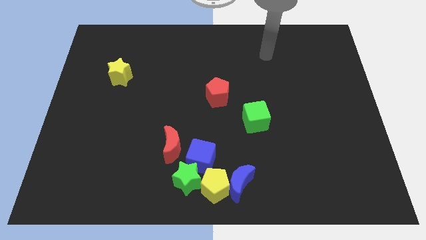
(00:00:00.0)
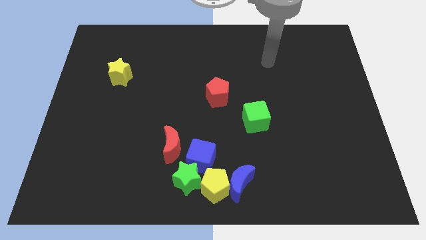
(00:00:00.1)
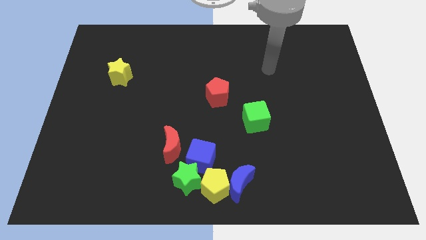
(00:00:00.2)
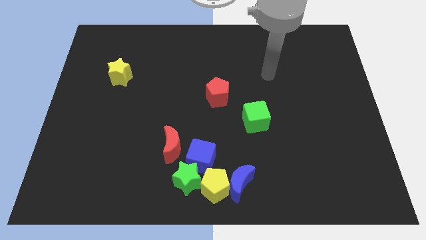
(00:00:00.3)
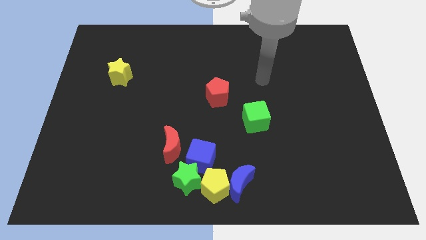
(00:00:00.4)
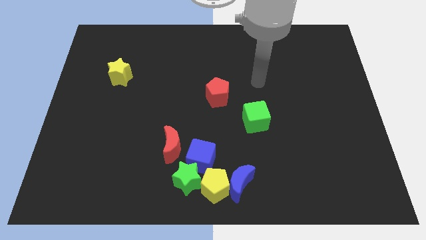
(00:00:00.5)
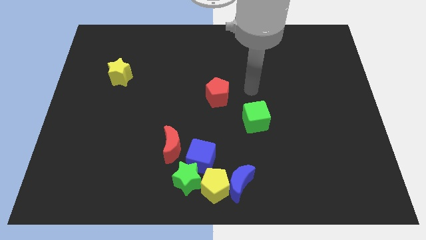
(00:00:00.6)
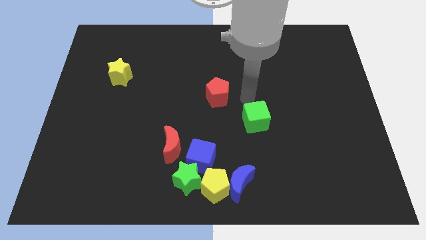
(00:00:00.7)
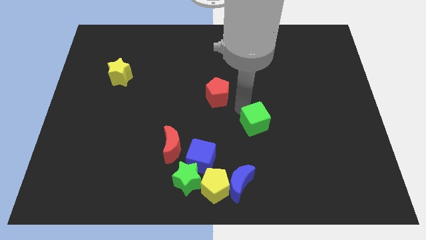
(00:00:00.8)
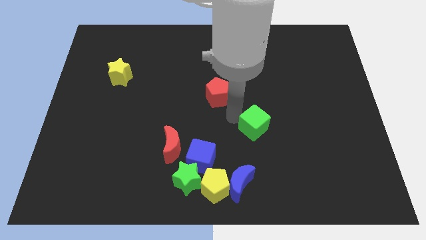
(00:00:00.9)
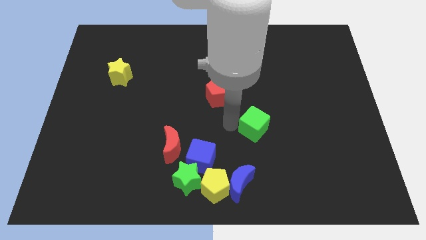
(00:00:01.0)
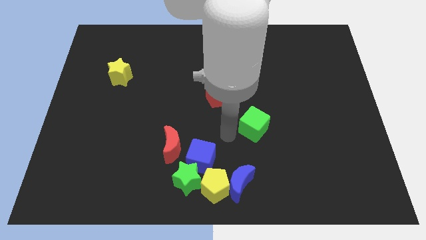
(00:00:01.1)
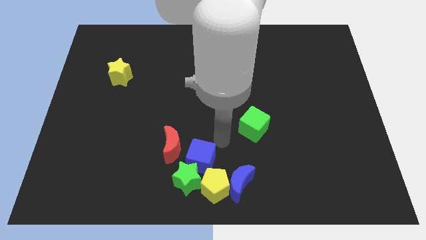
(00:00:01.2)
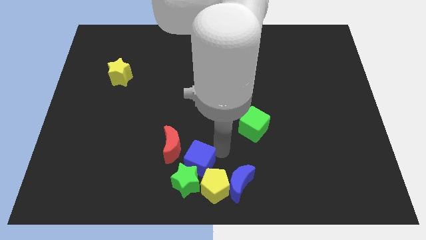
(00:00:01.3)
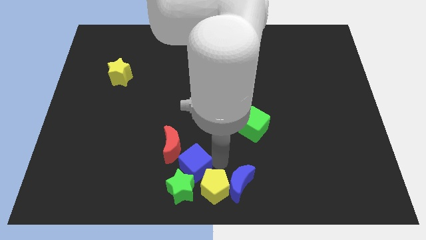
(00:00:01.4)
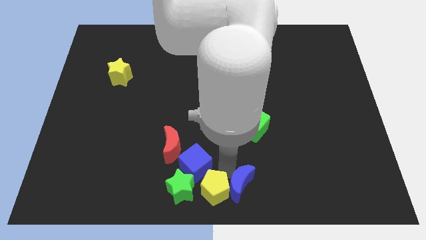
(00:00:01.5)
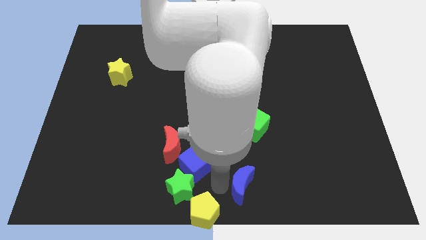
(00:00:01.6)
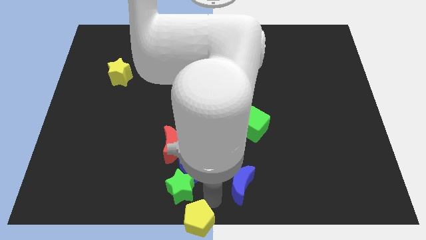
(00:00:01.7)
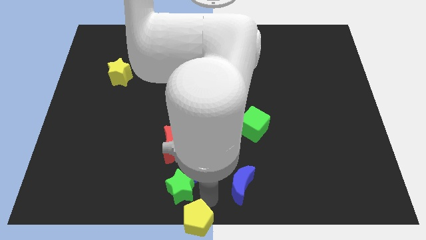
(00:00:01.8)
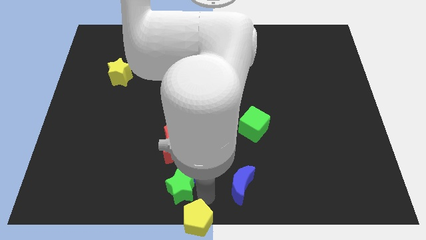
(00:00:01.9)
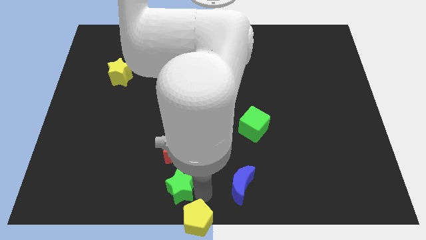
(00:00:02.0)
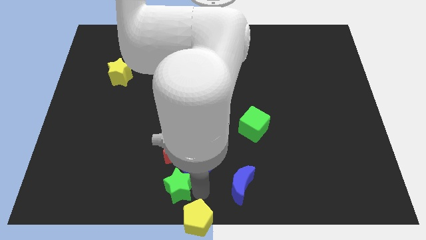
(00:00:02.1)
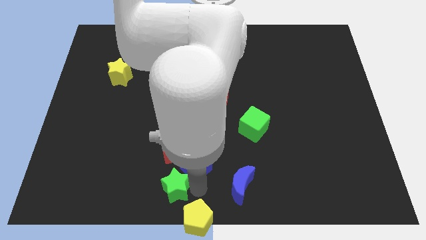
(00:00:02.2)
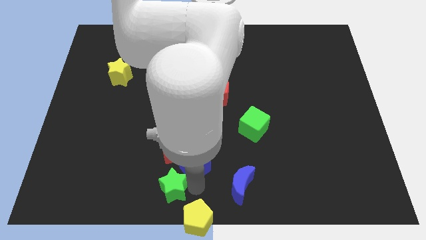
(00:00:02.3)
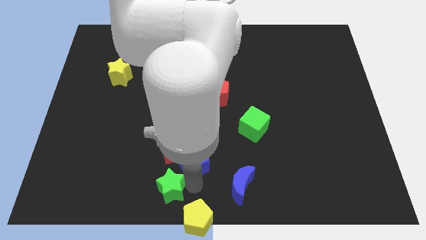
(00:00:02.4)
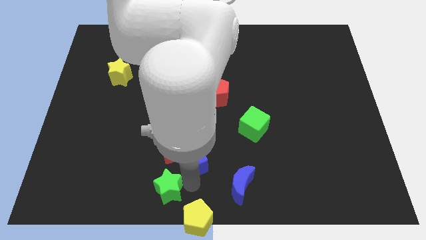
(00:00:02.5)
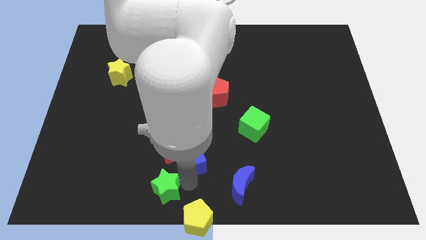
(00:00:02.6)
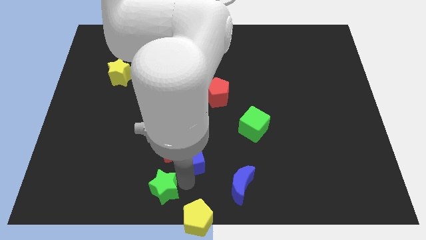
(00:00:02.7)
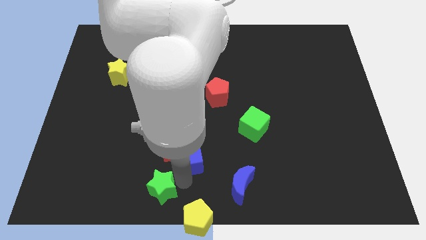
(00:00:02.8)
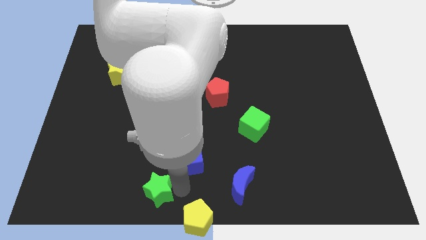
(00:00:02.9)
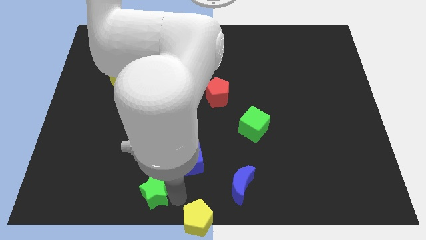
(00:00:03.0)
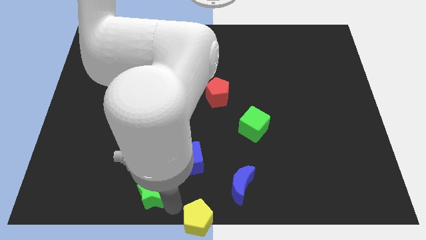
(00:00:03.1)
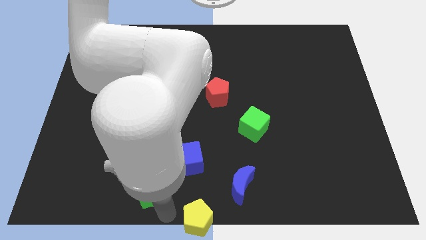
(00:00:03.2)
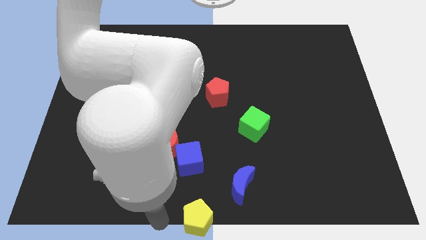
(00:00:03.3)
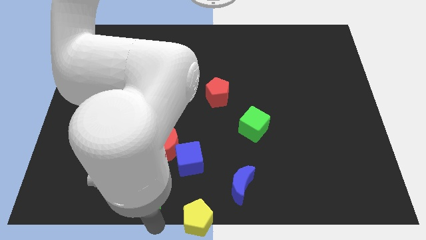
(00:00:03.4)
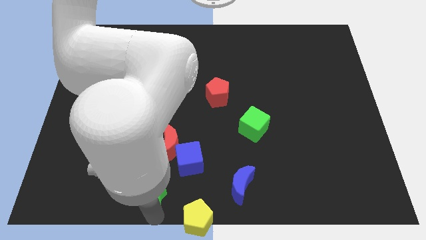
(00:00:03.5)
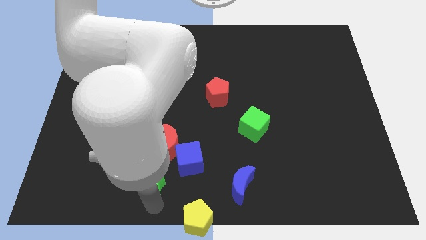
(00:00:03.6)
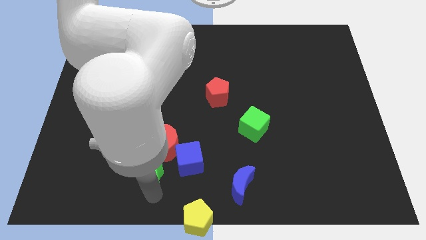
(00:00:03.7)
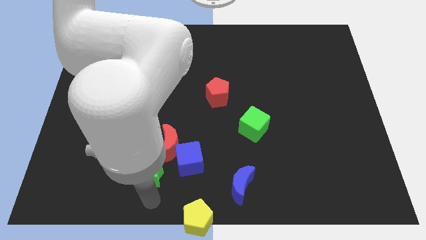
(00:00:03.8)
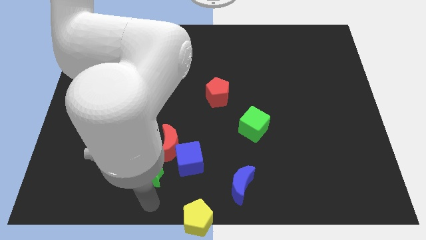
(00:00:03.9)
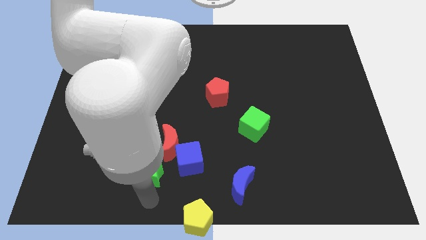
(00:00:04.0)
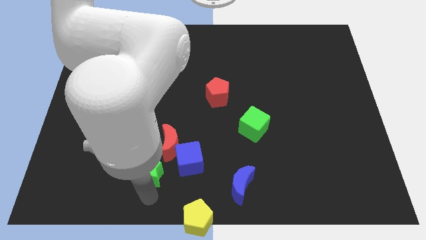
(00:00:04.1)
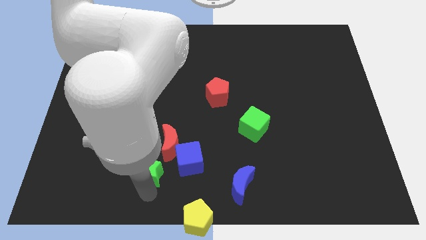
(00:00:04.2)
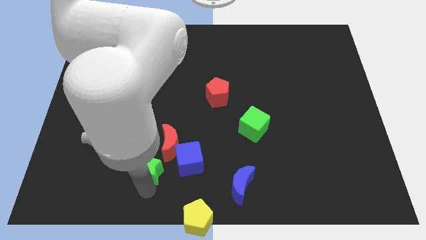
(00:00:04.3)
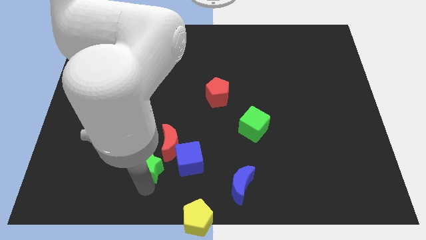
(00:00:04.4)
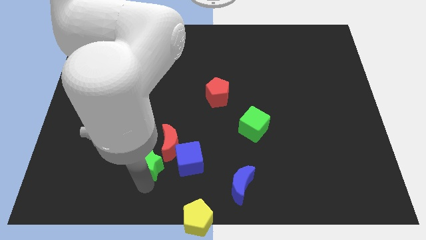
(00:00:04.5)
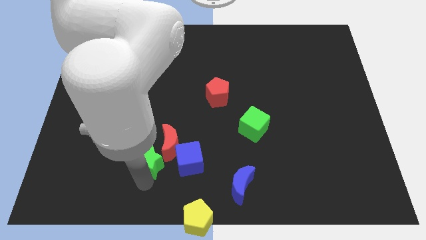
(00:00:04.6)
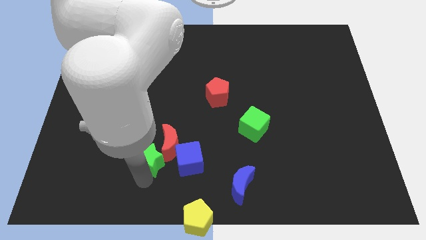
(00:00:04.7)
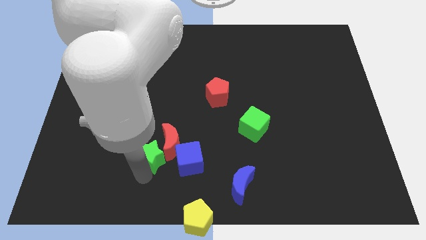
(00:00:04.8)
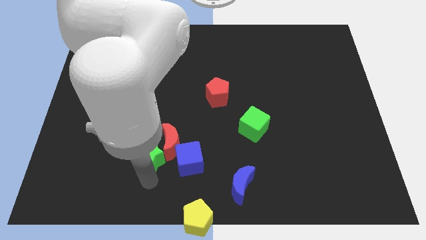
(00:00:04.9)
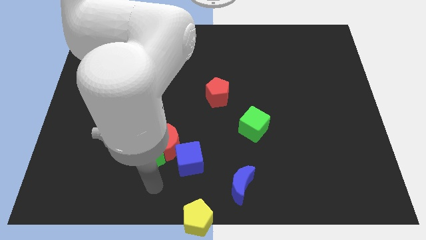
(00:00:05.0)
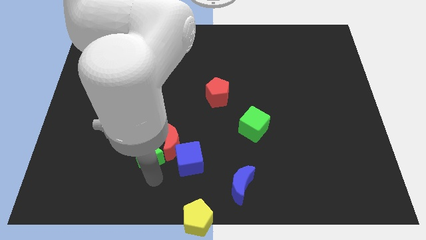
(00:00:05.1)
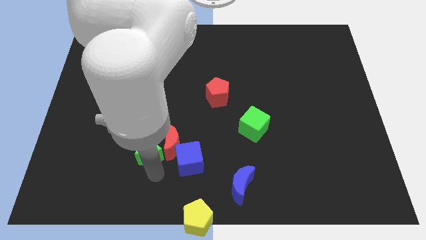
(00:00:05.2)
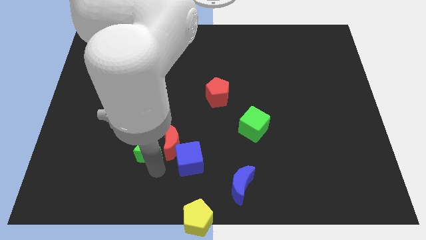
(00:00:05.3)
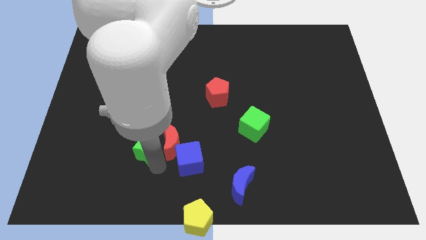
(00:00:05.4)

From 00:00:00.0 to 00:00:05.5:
push the green star diagonally up and to the left of the red moon

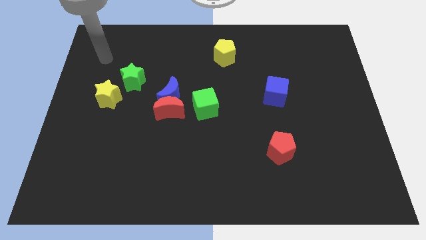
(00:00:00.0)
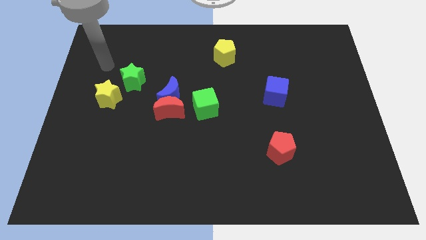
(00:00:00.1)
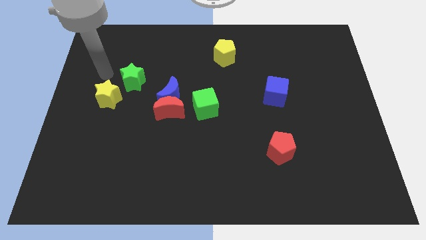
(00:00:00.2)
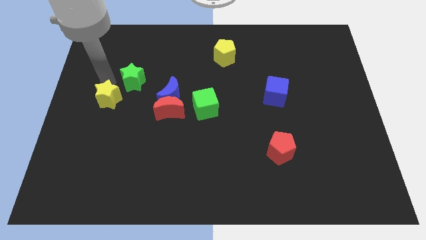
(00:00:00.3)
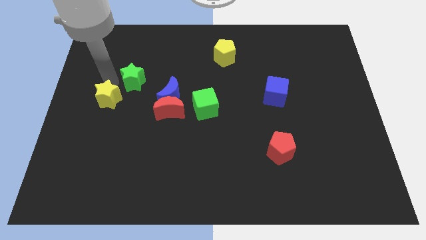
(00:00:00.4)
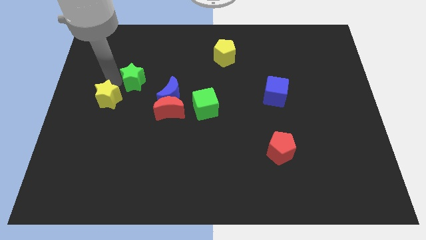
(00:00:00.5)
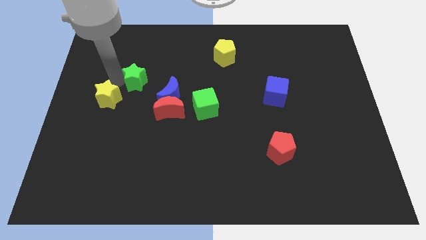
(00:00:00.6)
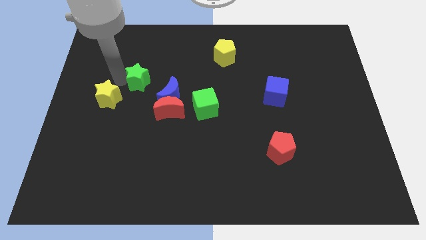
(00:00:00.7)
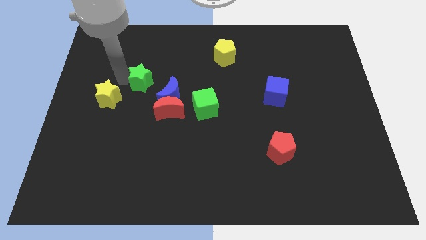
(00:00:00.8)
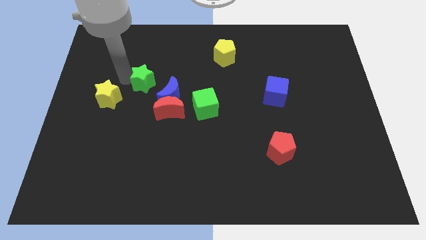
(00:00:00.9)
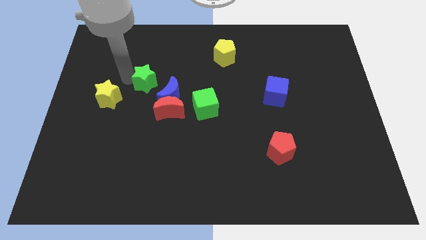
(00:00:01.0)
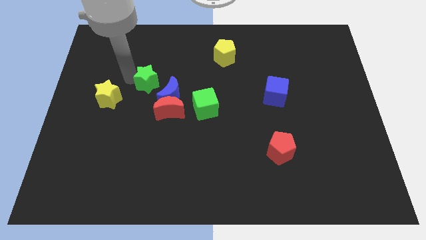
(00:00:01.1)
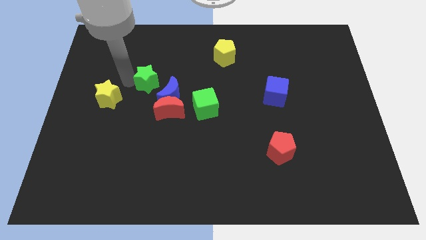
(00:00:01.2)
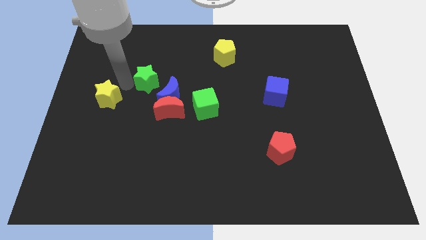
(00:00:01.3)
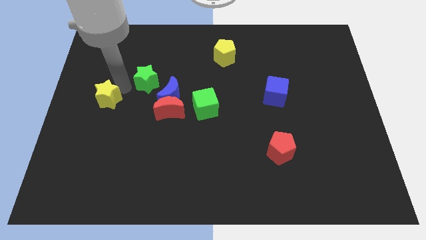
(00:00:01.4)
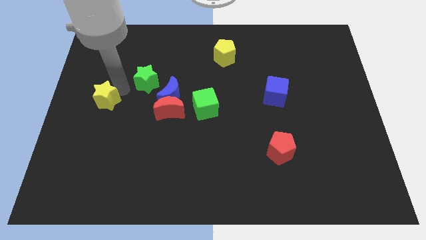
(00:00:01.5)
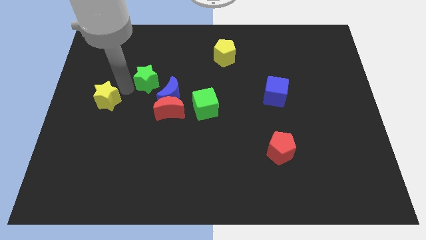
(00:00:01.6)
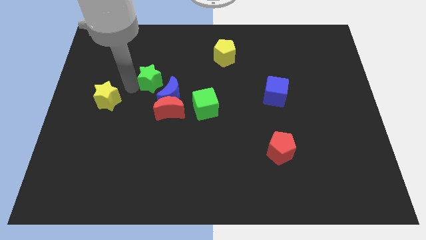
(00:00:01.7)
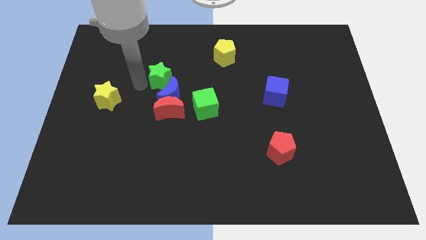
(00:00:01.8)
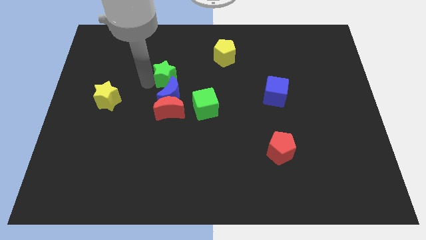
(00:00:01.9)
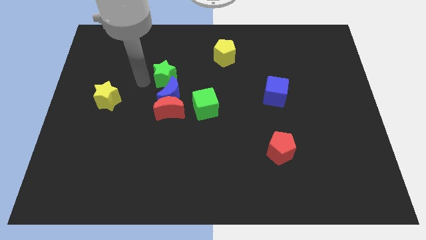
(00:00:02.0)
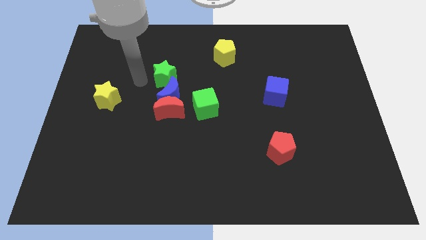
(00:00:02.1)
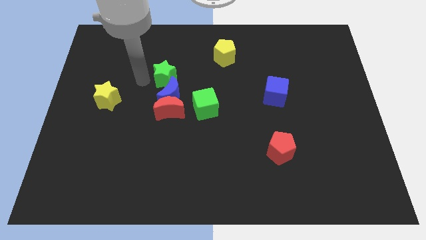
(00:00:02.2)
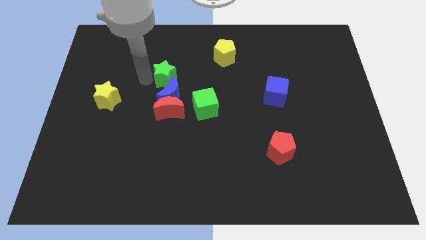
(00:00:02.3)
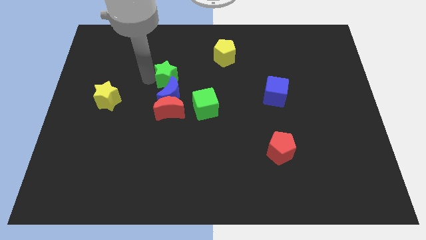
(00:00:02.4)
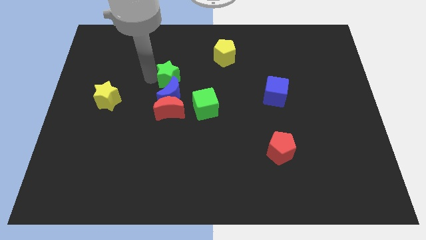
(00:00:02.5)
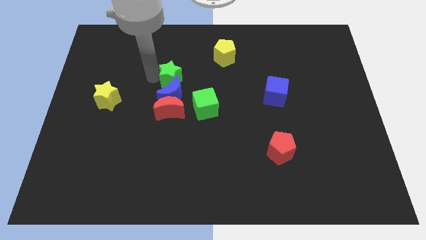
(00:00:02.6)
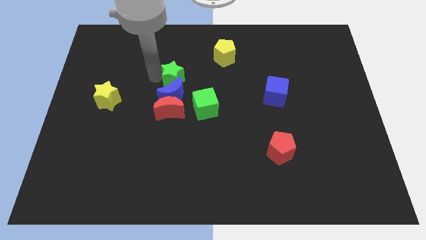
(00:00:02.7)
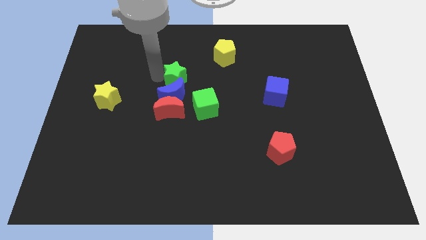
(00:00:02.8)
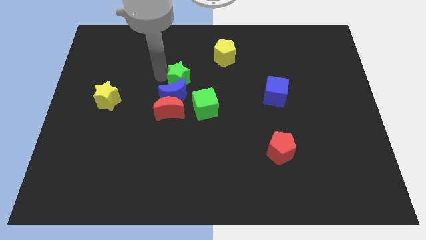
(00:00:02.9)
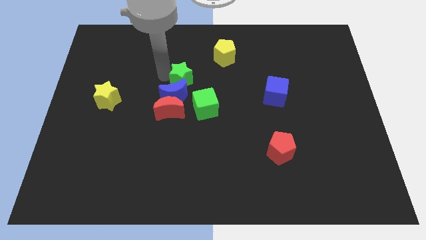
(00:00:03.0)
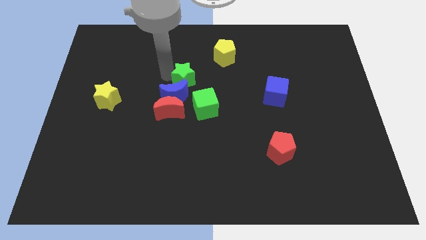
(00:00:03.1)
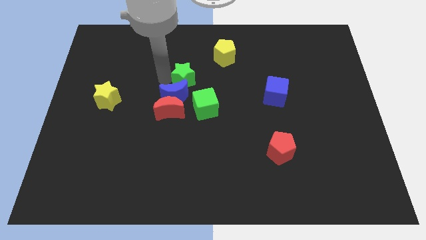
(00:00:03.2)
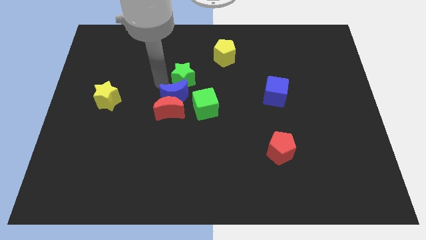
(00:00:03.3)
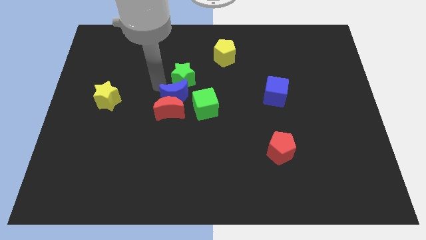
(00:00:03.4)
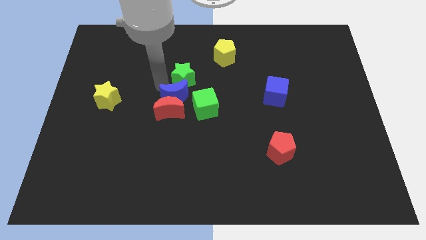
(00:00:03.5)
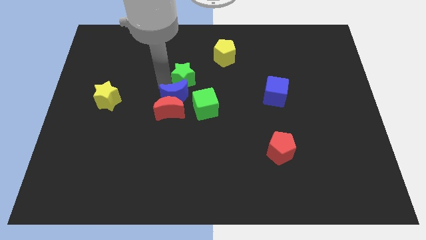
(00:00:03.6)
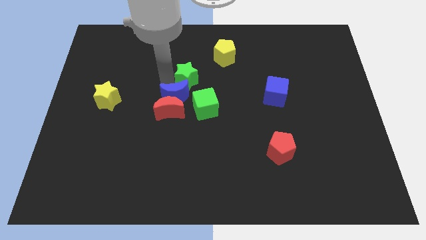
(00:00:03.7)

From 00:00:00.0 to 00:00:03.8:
move the green star to the top side of the green cube
